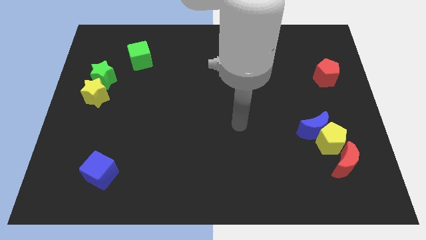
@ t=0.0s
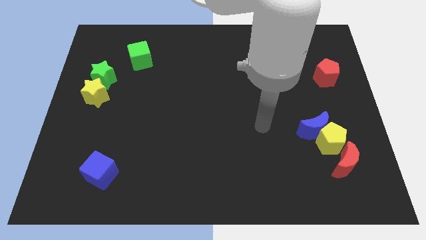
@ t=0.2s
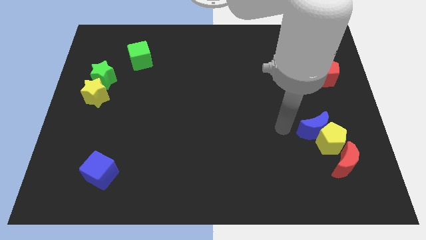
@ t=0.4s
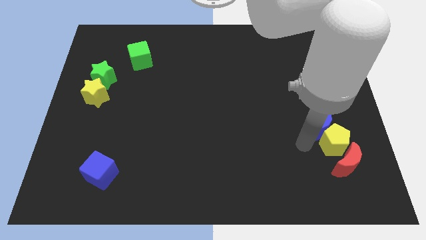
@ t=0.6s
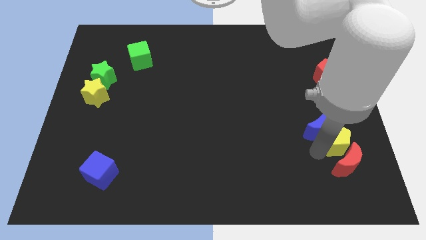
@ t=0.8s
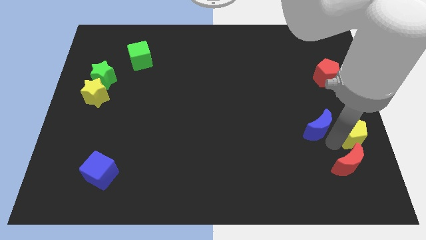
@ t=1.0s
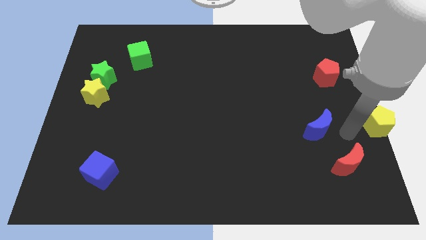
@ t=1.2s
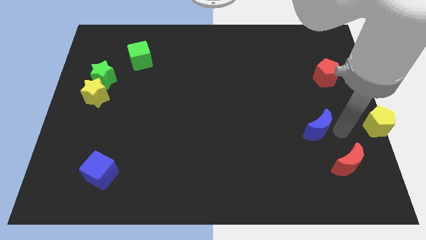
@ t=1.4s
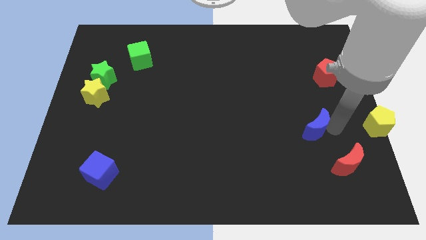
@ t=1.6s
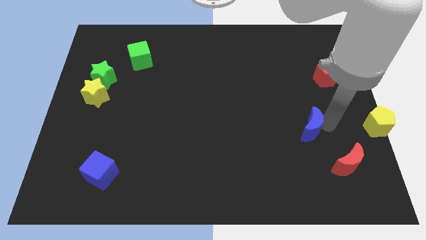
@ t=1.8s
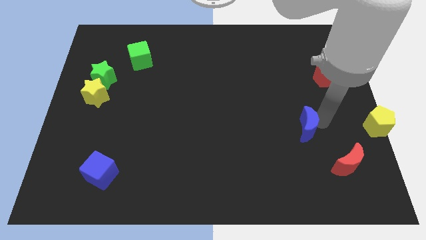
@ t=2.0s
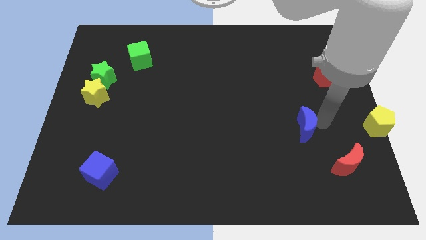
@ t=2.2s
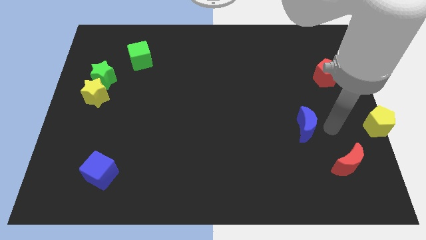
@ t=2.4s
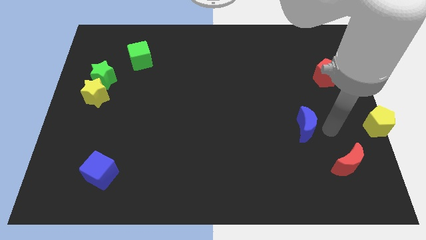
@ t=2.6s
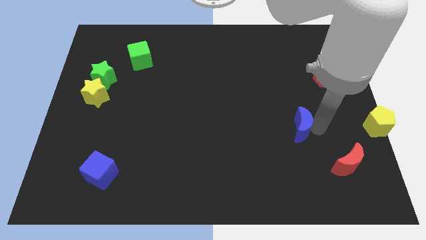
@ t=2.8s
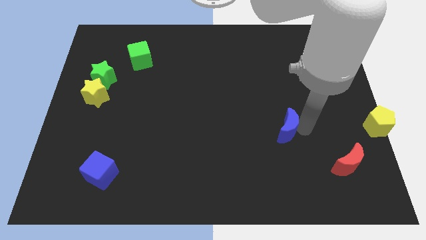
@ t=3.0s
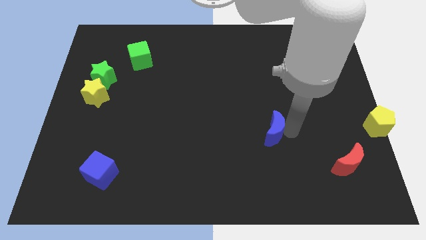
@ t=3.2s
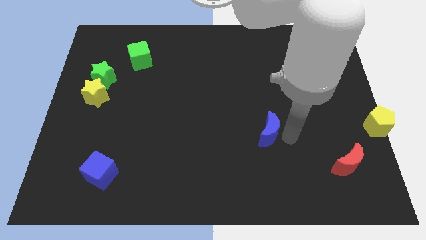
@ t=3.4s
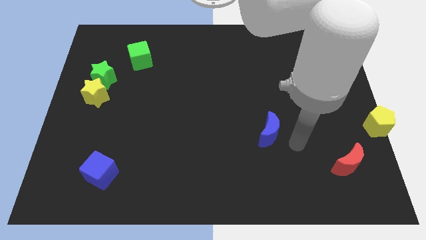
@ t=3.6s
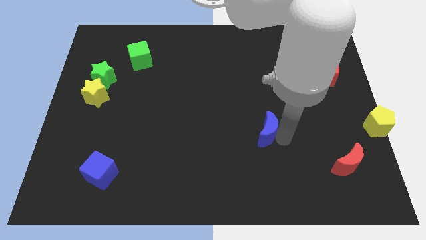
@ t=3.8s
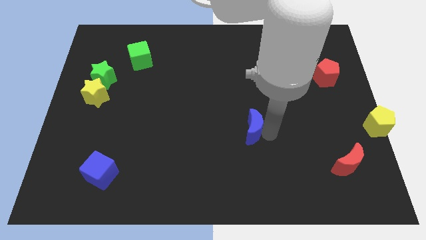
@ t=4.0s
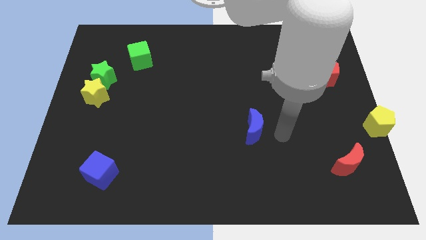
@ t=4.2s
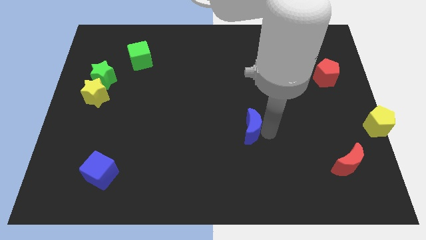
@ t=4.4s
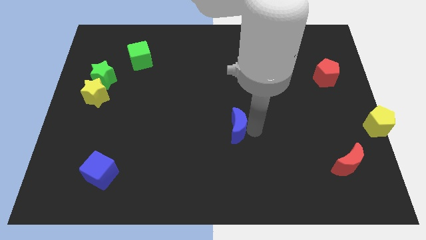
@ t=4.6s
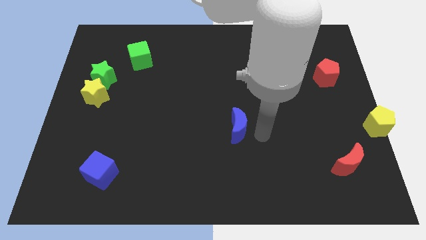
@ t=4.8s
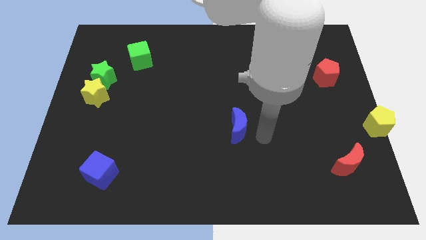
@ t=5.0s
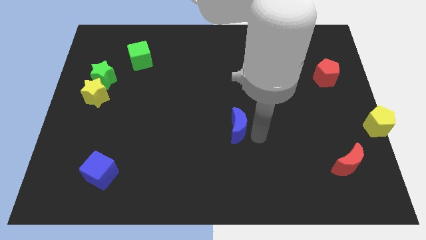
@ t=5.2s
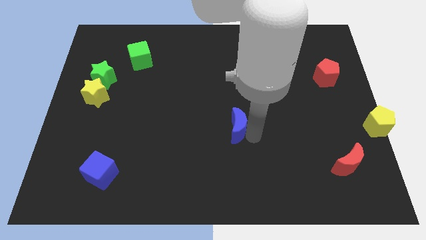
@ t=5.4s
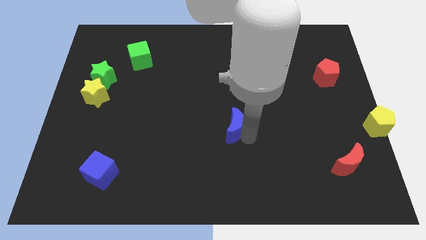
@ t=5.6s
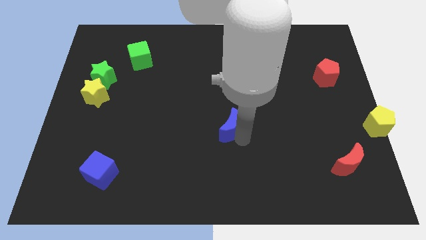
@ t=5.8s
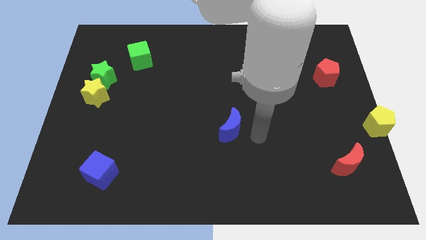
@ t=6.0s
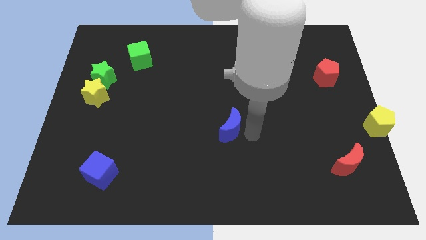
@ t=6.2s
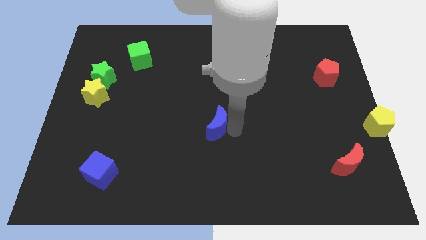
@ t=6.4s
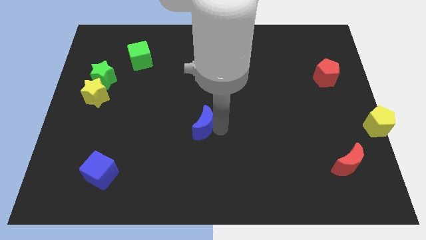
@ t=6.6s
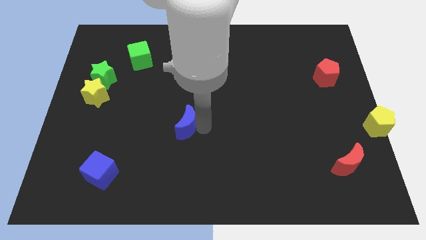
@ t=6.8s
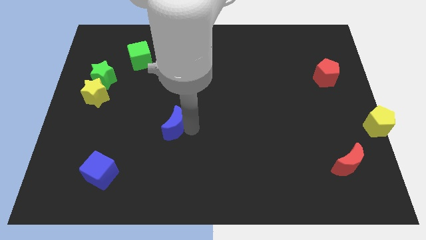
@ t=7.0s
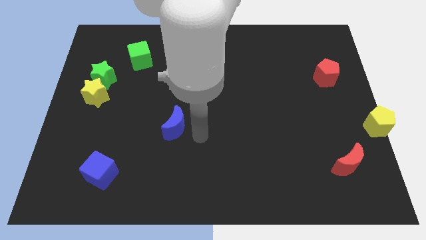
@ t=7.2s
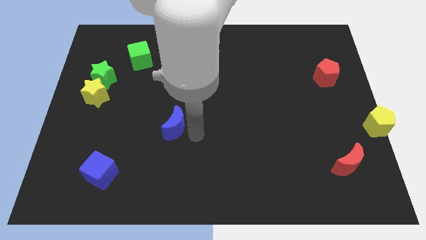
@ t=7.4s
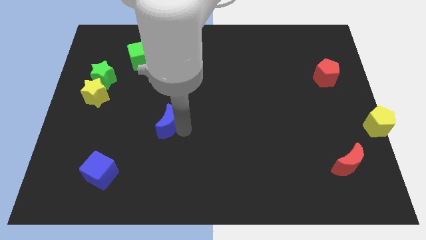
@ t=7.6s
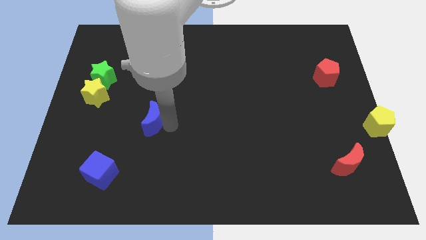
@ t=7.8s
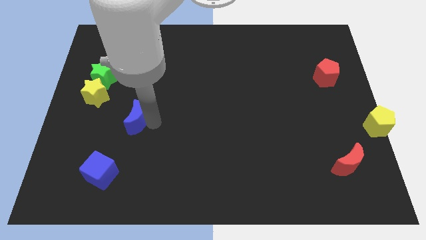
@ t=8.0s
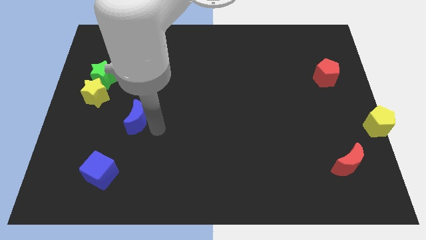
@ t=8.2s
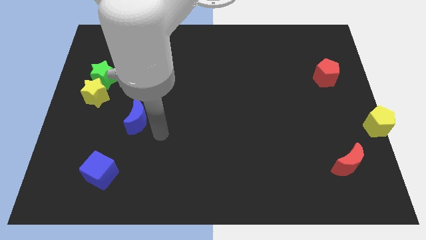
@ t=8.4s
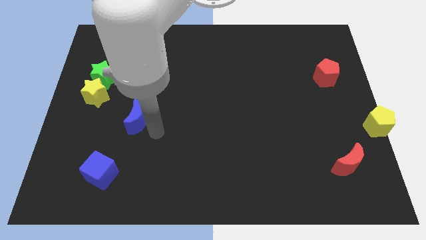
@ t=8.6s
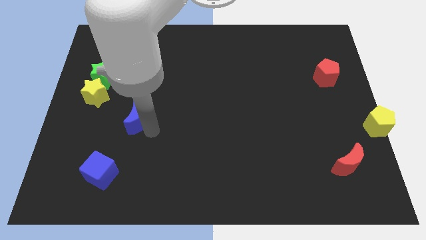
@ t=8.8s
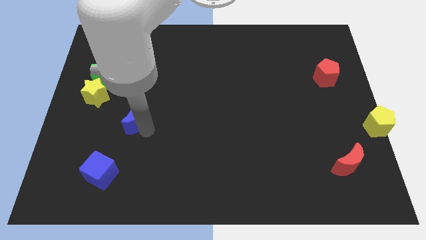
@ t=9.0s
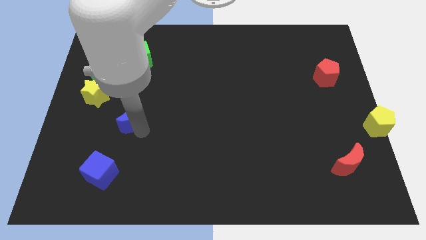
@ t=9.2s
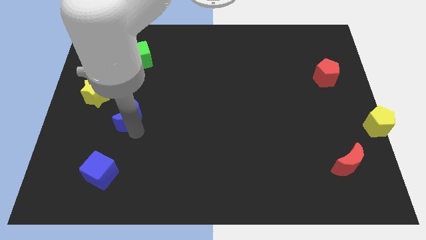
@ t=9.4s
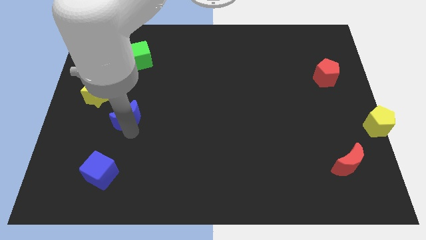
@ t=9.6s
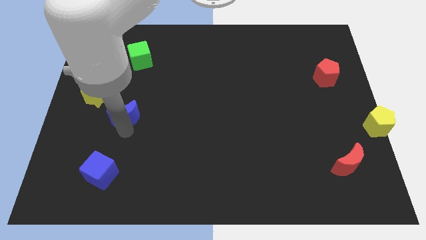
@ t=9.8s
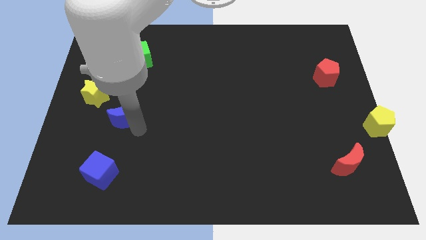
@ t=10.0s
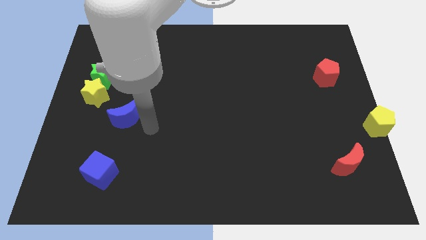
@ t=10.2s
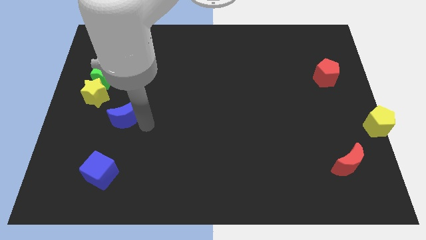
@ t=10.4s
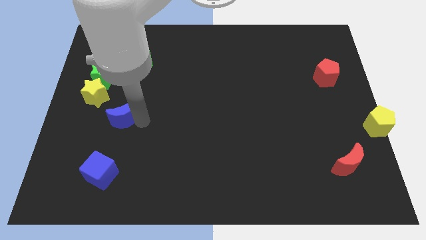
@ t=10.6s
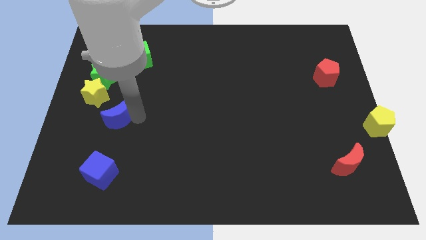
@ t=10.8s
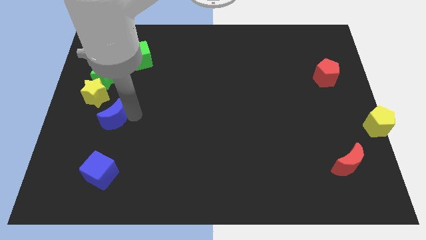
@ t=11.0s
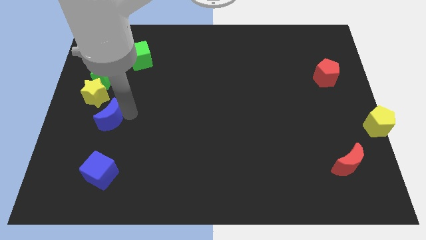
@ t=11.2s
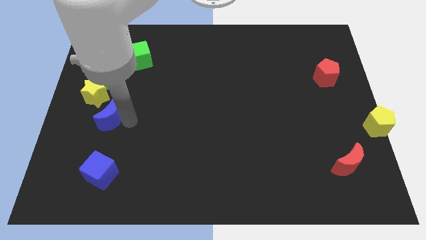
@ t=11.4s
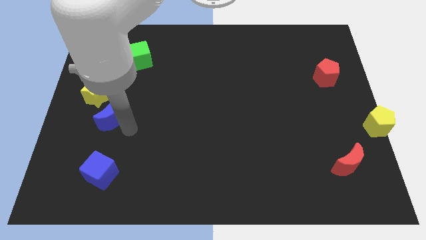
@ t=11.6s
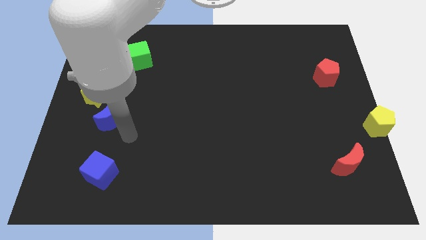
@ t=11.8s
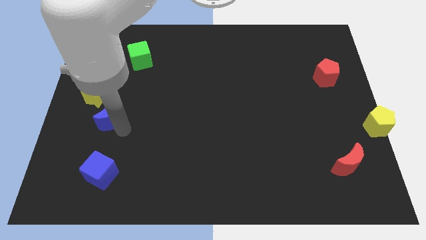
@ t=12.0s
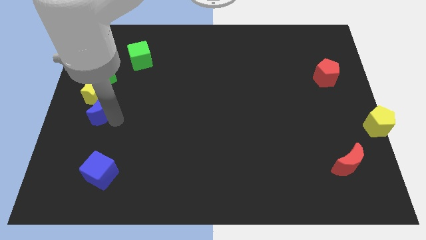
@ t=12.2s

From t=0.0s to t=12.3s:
slide the blue moon to the left side of the board
